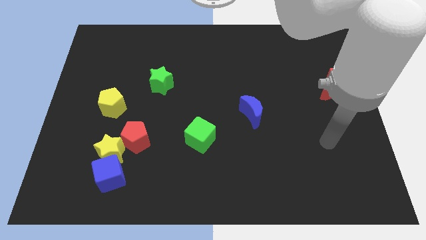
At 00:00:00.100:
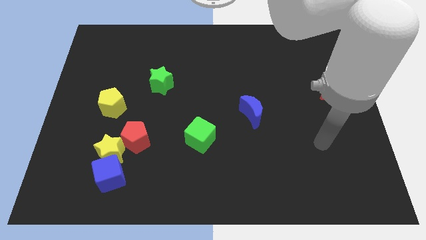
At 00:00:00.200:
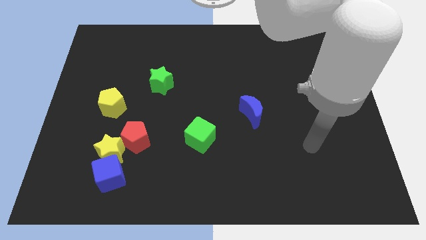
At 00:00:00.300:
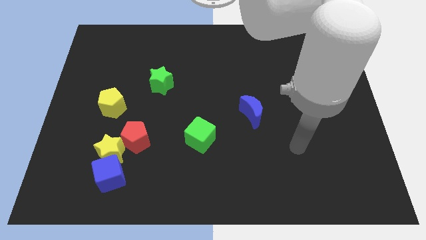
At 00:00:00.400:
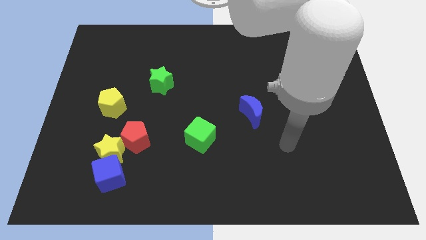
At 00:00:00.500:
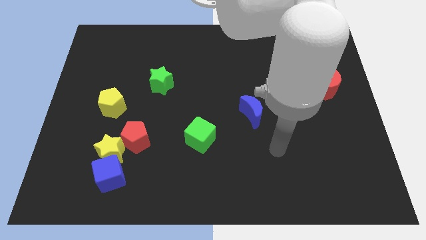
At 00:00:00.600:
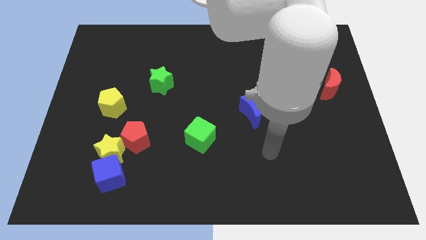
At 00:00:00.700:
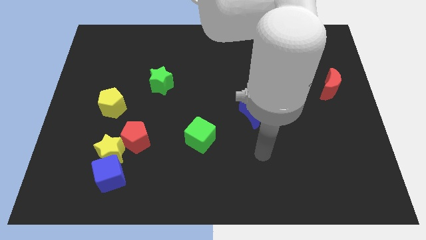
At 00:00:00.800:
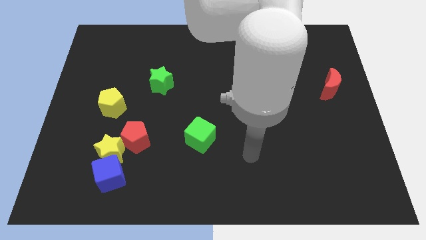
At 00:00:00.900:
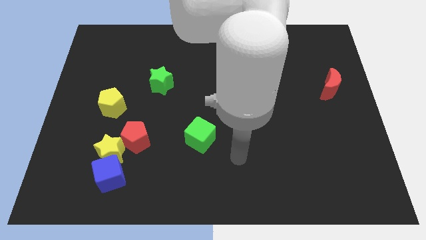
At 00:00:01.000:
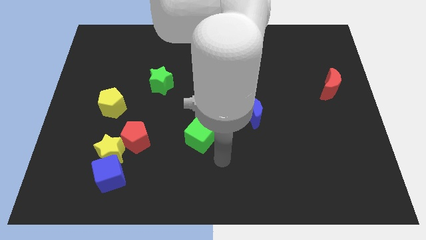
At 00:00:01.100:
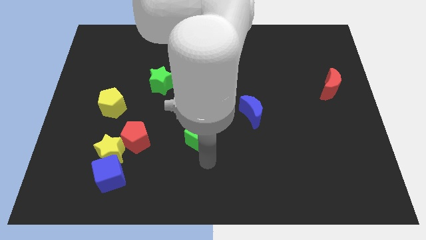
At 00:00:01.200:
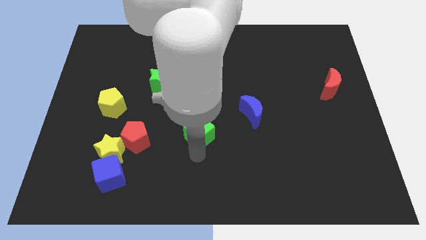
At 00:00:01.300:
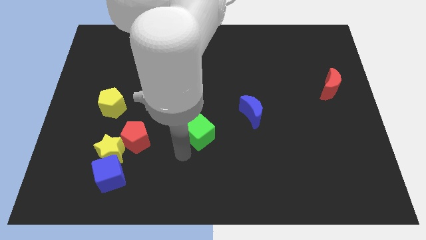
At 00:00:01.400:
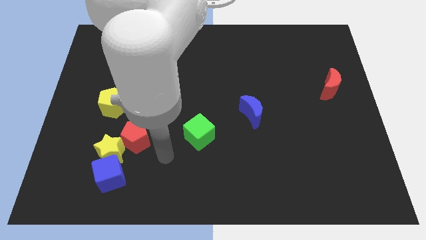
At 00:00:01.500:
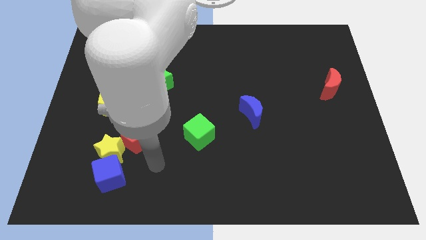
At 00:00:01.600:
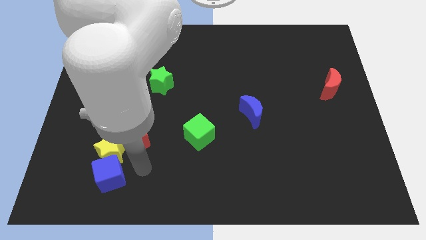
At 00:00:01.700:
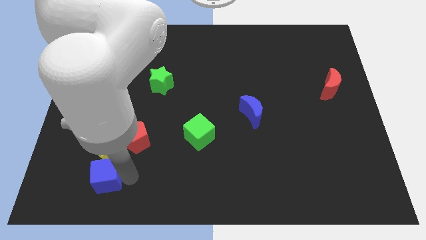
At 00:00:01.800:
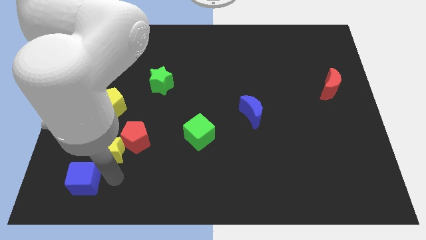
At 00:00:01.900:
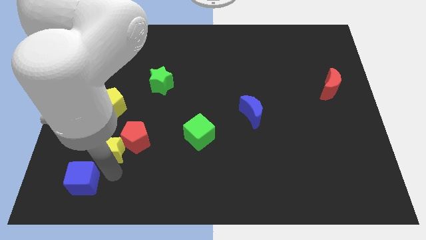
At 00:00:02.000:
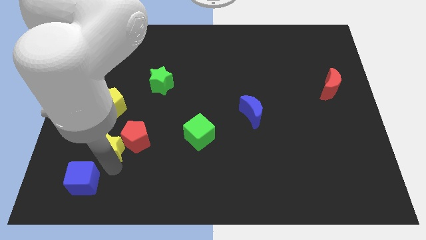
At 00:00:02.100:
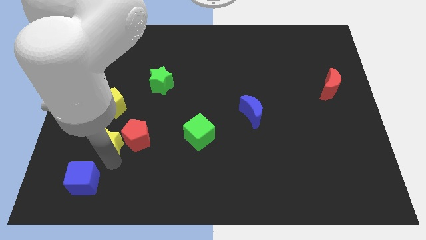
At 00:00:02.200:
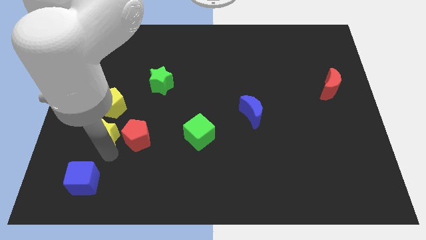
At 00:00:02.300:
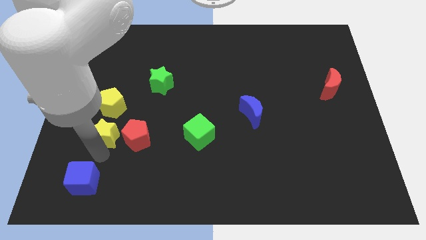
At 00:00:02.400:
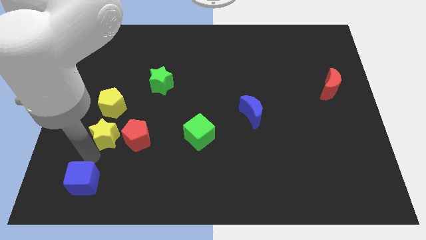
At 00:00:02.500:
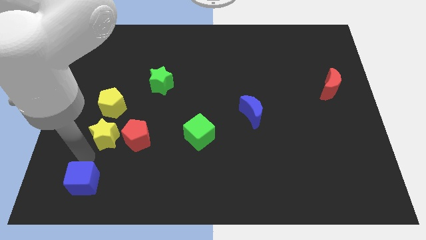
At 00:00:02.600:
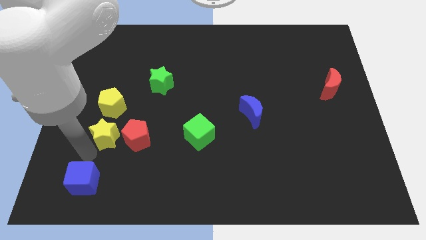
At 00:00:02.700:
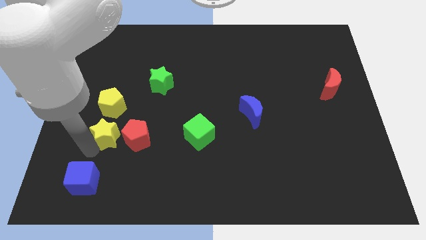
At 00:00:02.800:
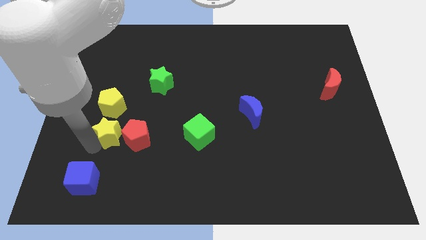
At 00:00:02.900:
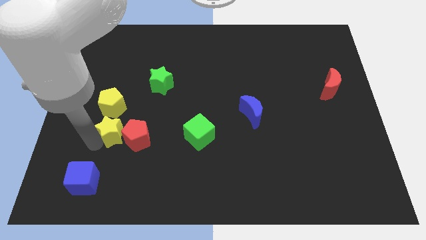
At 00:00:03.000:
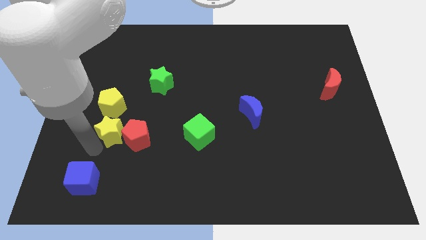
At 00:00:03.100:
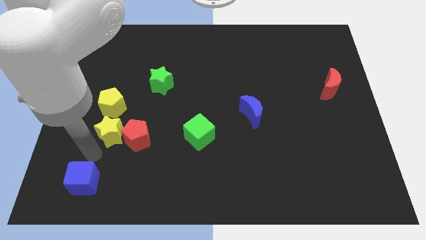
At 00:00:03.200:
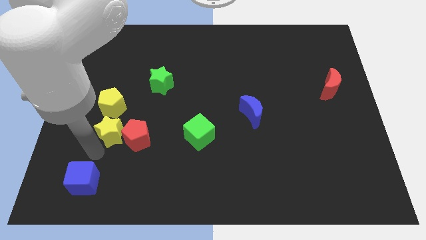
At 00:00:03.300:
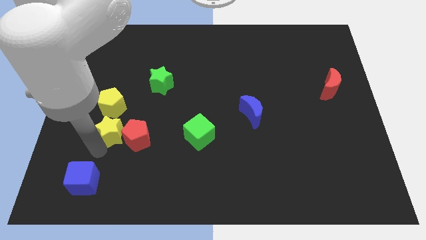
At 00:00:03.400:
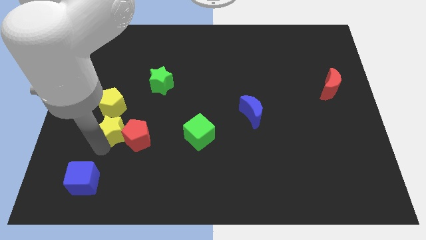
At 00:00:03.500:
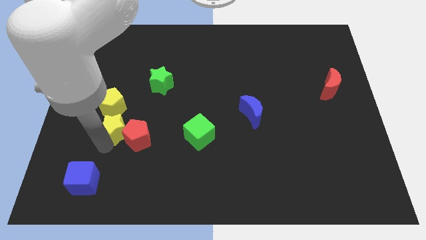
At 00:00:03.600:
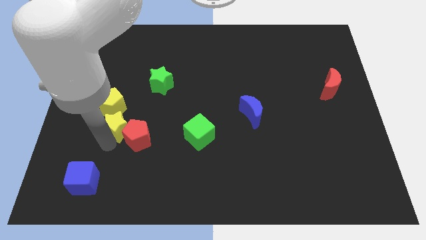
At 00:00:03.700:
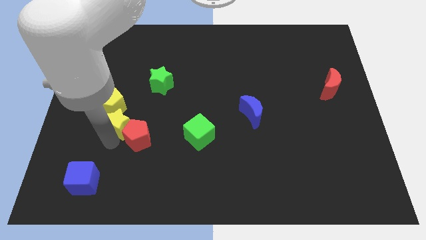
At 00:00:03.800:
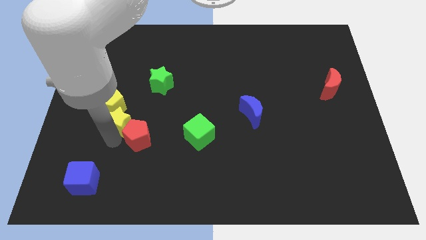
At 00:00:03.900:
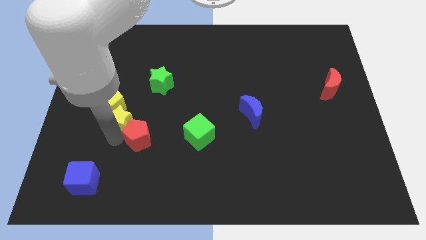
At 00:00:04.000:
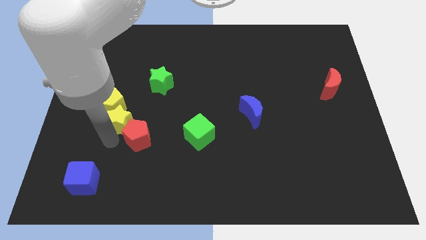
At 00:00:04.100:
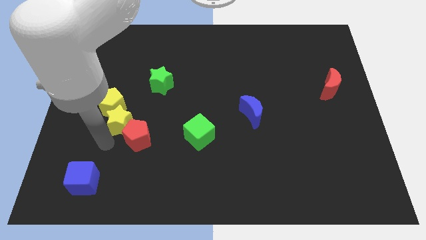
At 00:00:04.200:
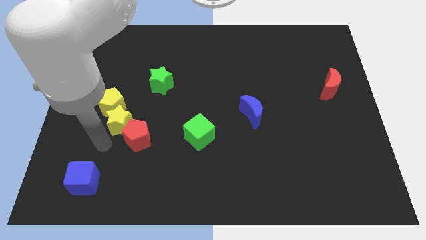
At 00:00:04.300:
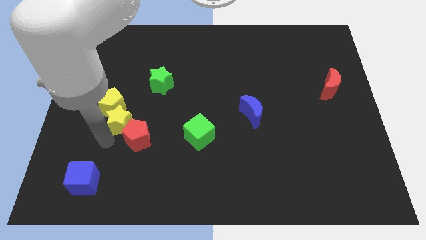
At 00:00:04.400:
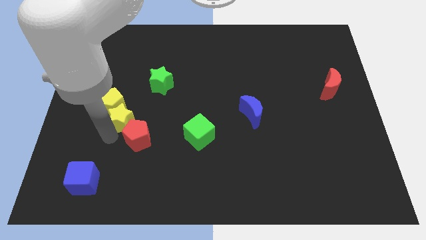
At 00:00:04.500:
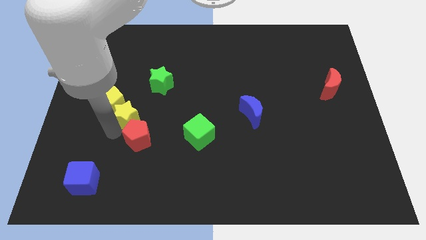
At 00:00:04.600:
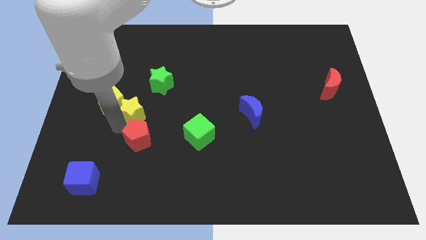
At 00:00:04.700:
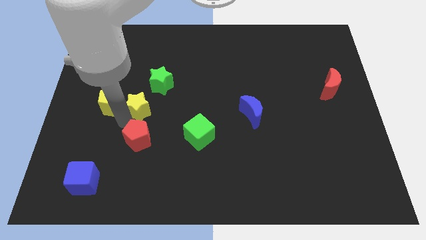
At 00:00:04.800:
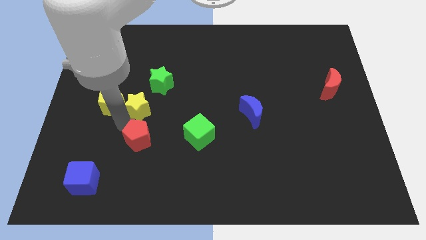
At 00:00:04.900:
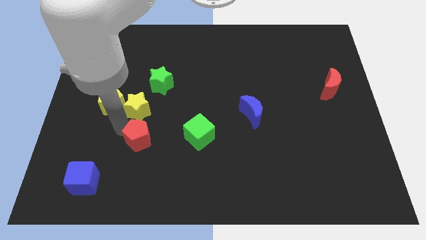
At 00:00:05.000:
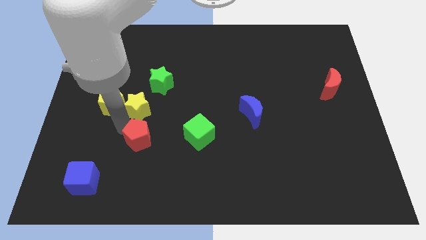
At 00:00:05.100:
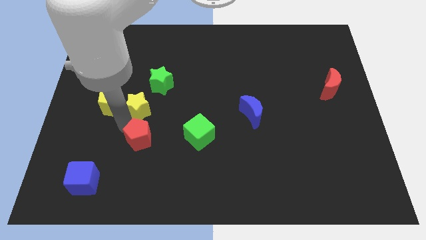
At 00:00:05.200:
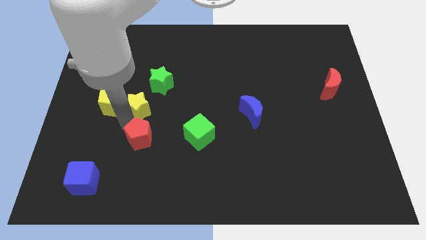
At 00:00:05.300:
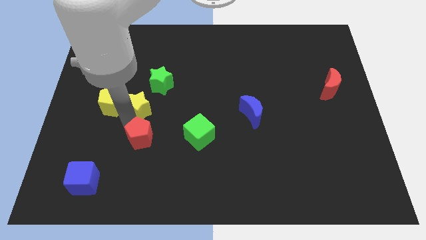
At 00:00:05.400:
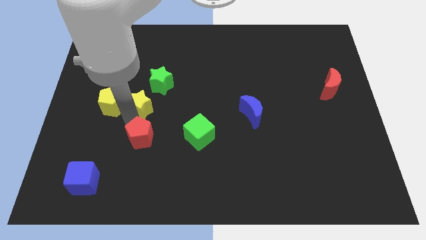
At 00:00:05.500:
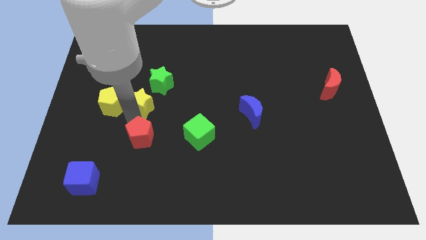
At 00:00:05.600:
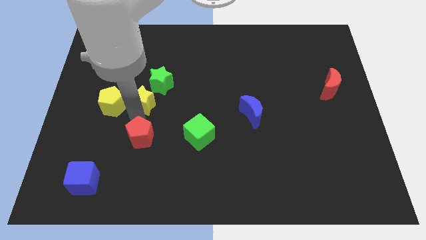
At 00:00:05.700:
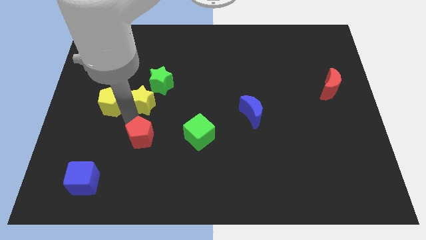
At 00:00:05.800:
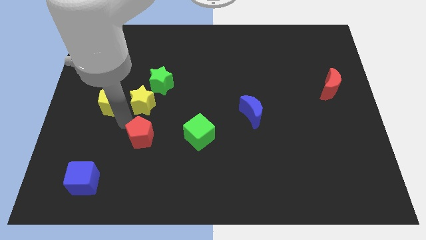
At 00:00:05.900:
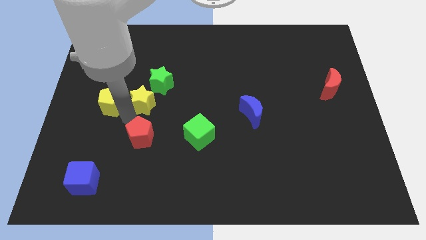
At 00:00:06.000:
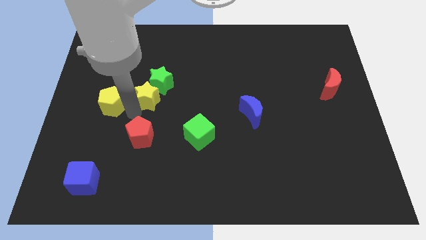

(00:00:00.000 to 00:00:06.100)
slide the yellow star next to the green star

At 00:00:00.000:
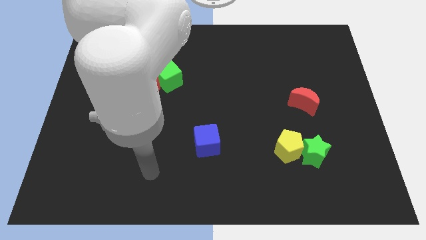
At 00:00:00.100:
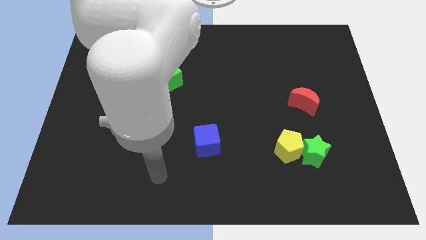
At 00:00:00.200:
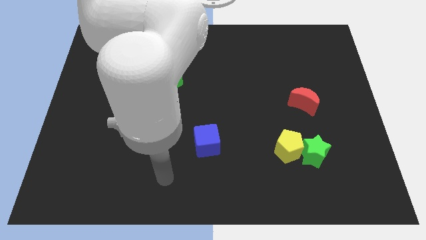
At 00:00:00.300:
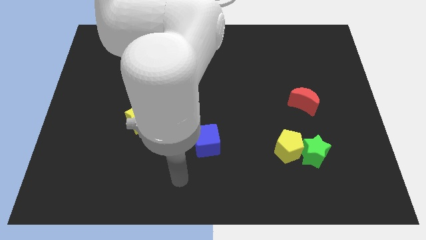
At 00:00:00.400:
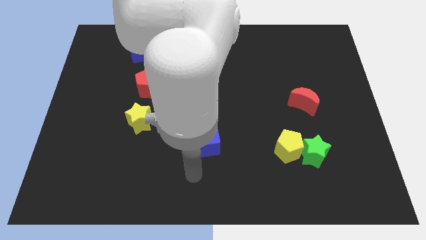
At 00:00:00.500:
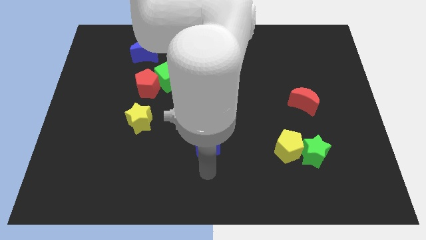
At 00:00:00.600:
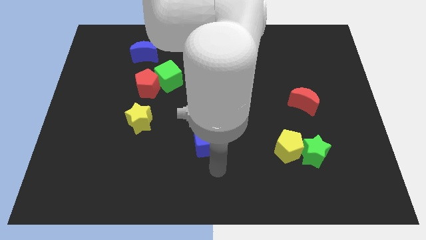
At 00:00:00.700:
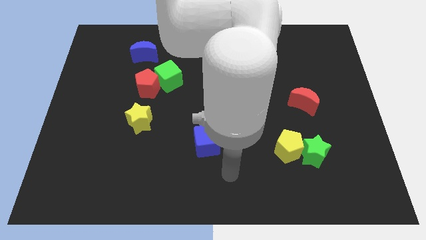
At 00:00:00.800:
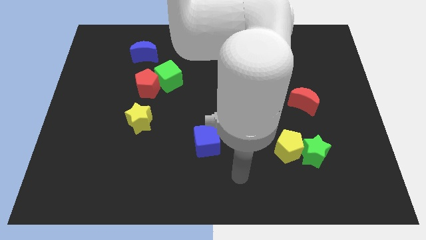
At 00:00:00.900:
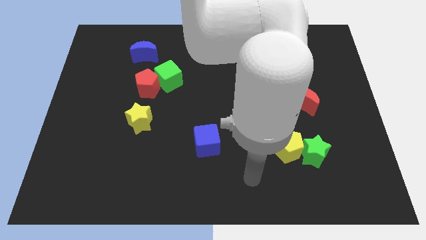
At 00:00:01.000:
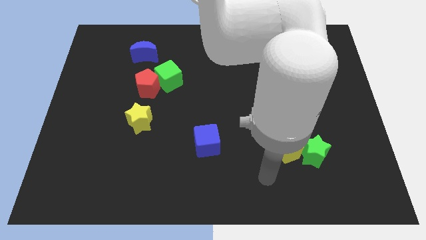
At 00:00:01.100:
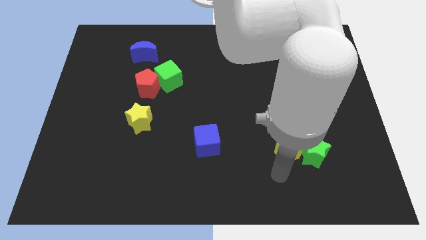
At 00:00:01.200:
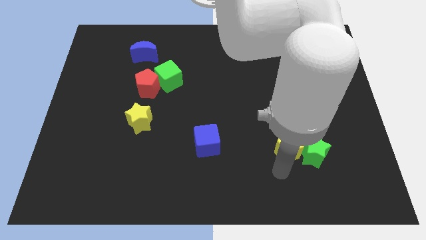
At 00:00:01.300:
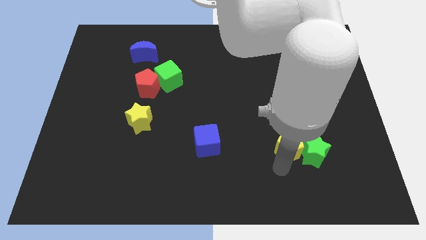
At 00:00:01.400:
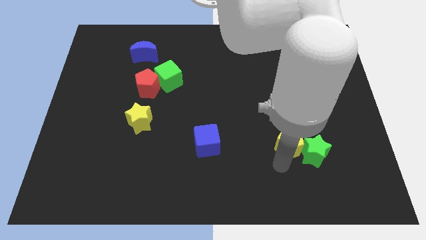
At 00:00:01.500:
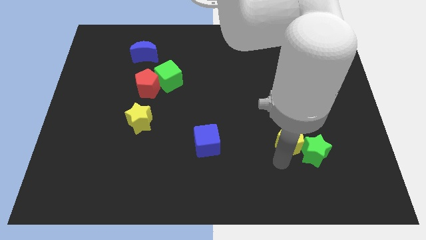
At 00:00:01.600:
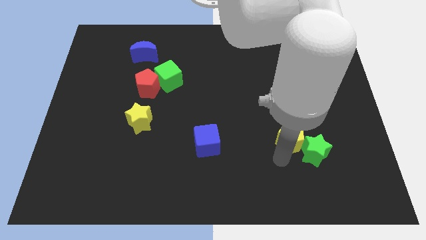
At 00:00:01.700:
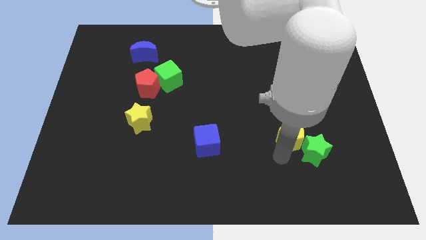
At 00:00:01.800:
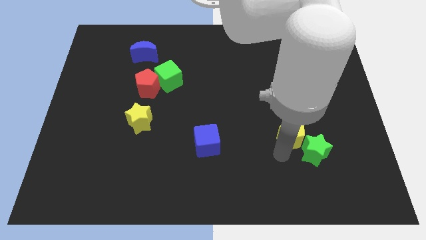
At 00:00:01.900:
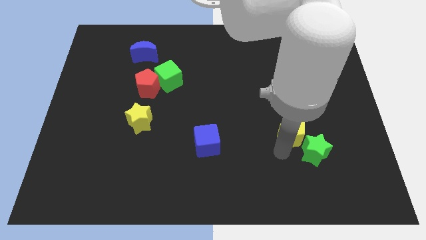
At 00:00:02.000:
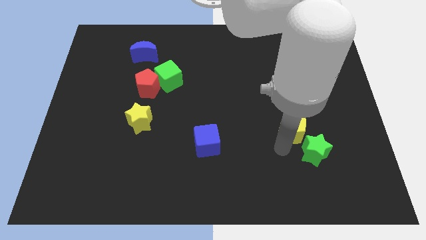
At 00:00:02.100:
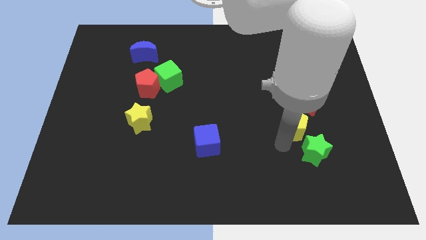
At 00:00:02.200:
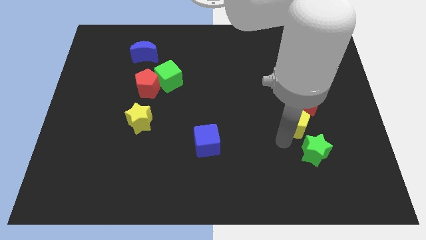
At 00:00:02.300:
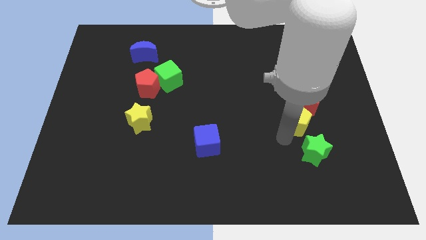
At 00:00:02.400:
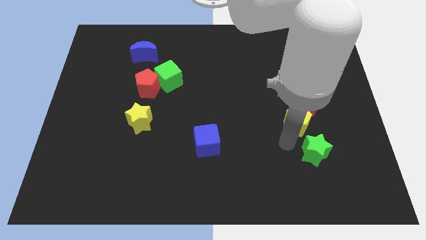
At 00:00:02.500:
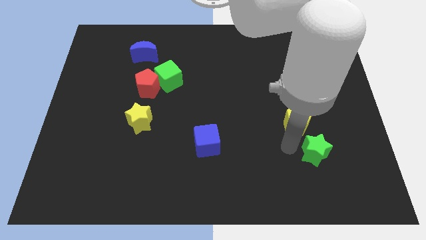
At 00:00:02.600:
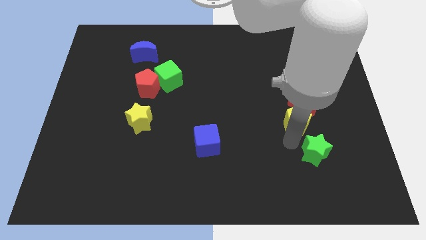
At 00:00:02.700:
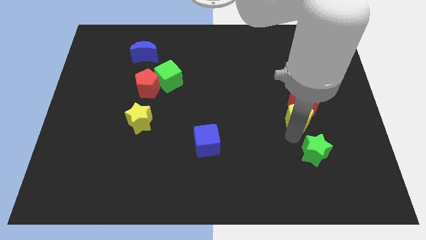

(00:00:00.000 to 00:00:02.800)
move the yellow pentagon next to the red moon
